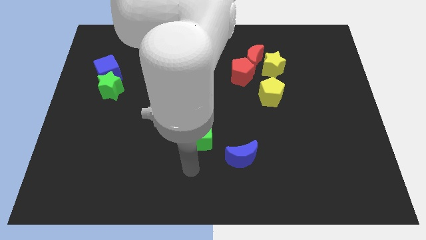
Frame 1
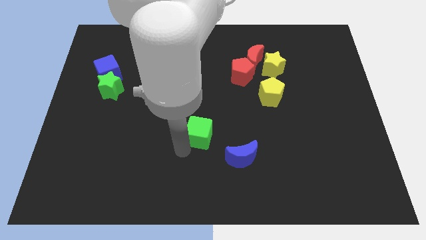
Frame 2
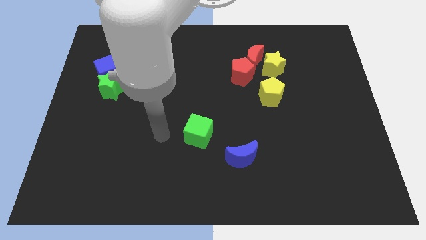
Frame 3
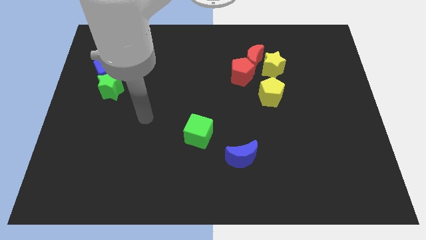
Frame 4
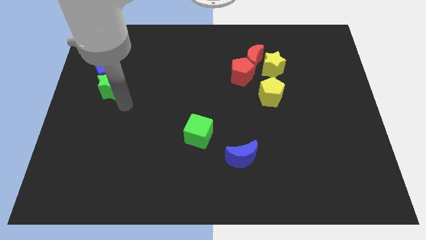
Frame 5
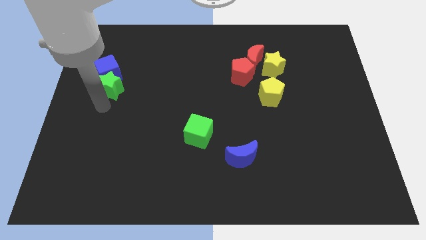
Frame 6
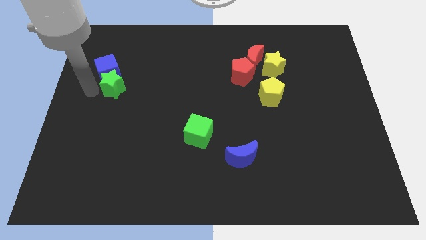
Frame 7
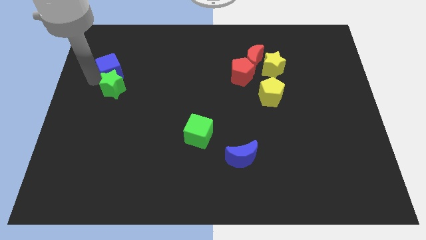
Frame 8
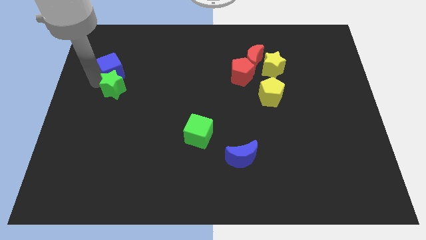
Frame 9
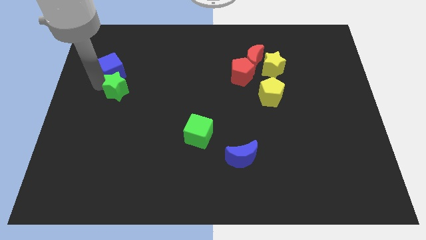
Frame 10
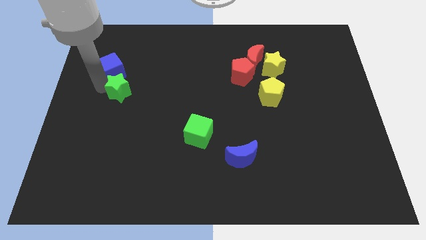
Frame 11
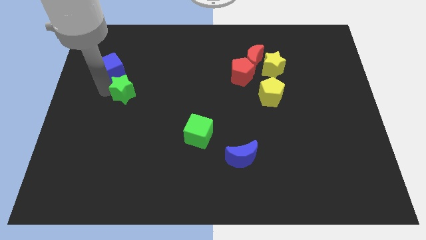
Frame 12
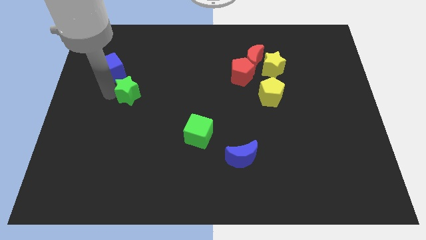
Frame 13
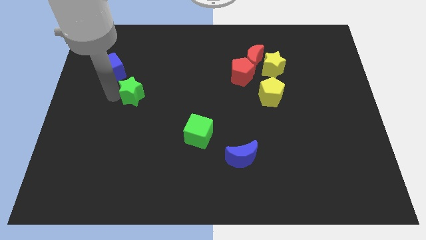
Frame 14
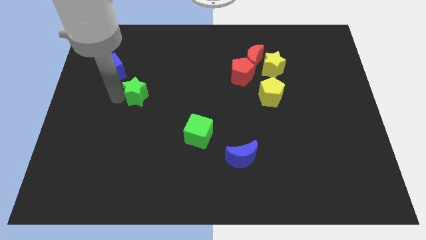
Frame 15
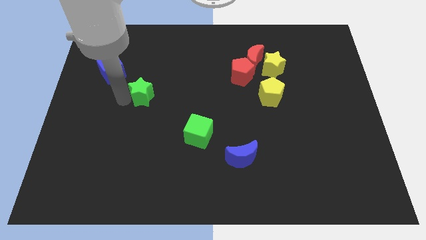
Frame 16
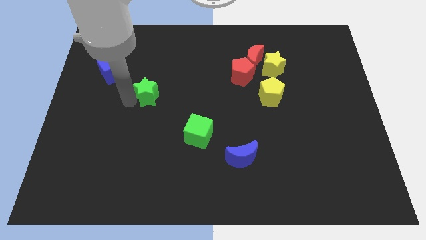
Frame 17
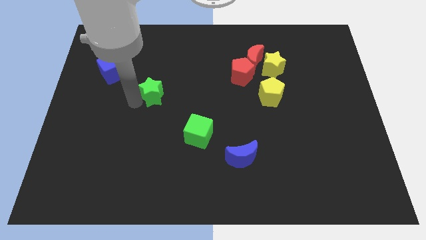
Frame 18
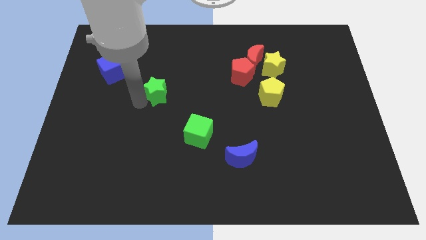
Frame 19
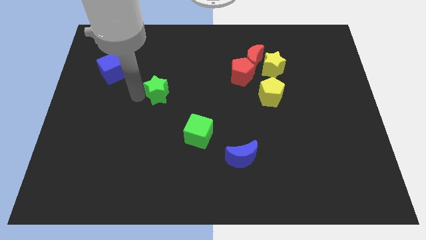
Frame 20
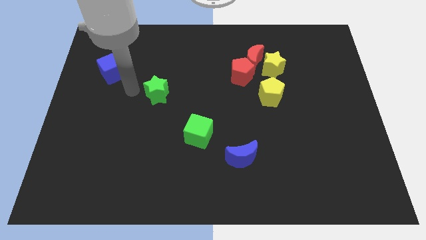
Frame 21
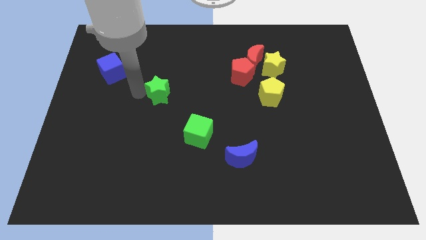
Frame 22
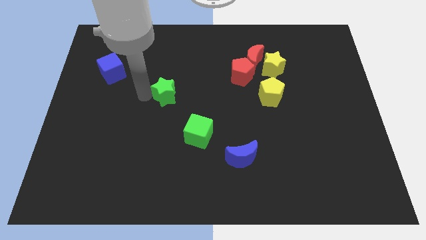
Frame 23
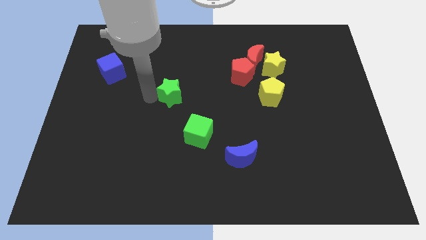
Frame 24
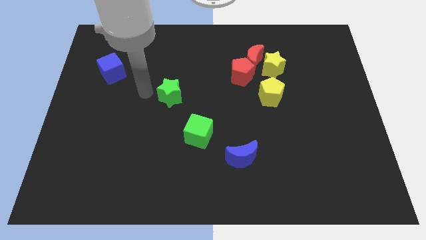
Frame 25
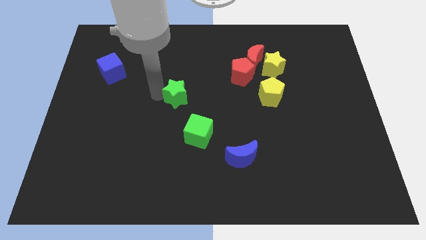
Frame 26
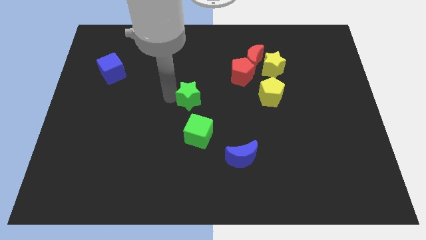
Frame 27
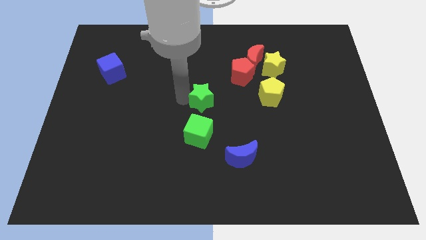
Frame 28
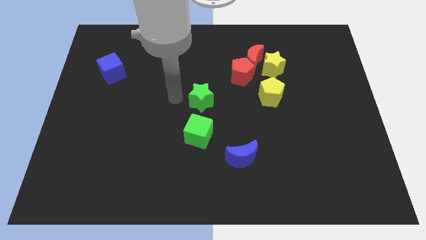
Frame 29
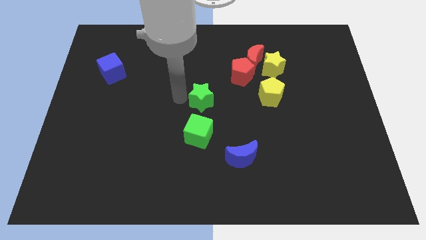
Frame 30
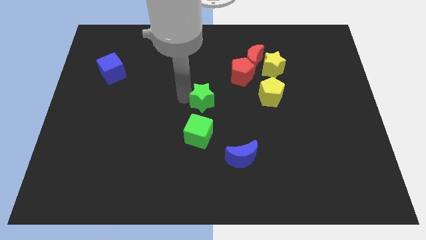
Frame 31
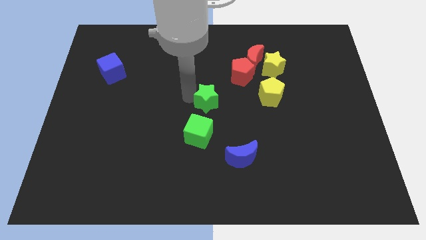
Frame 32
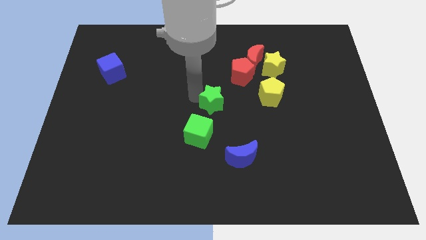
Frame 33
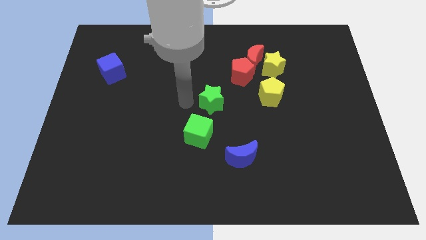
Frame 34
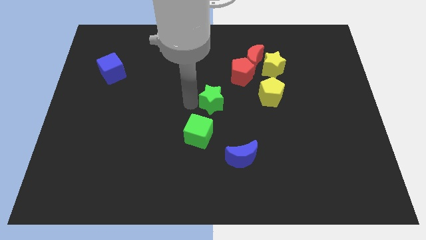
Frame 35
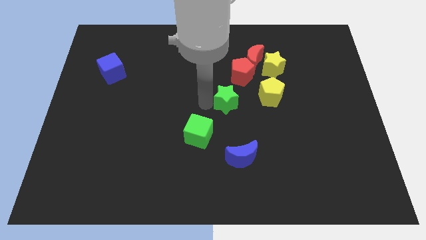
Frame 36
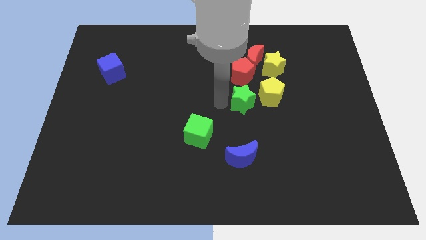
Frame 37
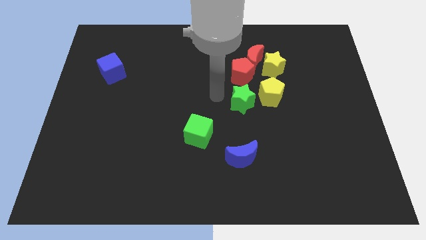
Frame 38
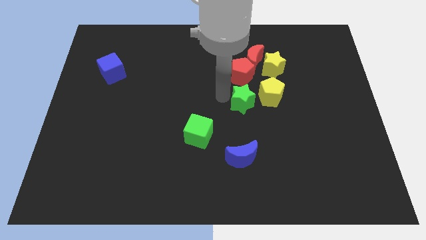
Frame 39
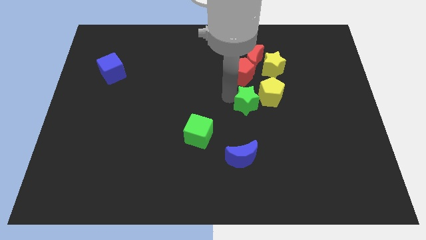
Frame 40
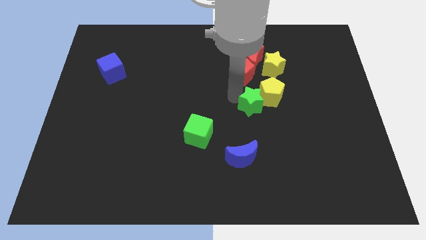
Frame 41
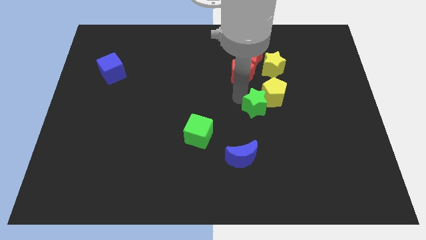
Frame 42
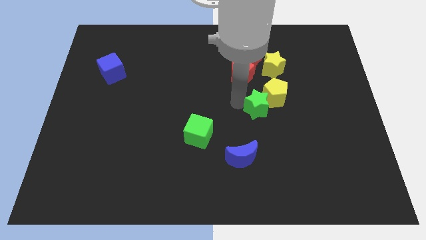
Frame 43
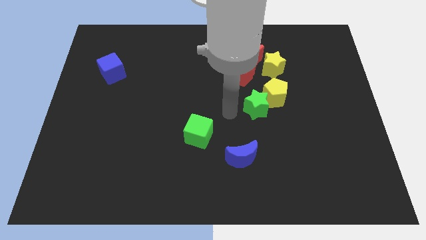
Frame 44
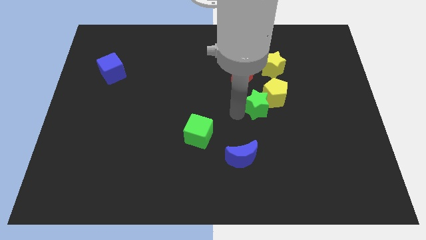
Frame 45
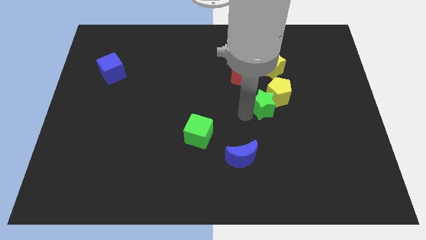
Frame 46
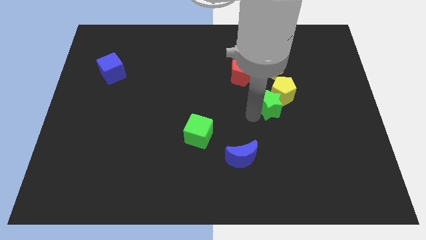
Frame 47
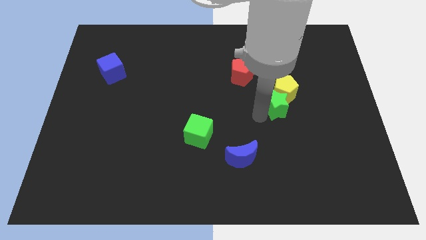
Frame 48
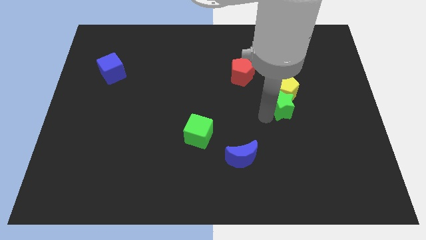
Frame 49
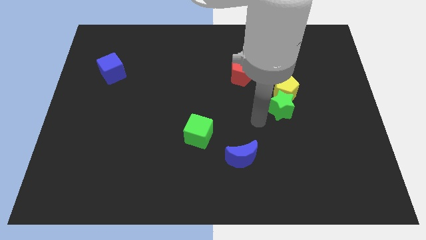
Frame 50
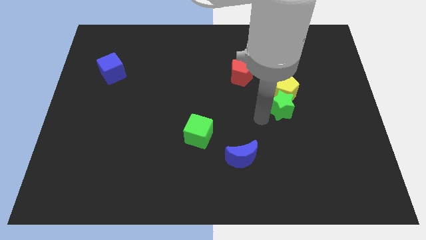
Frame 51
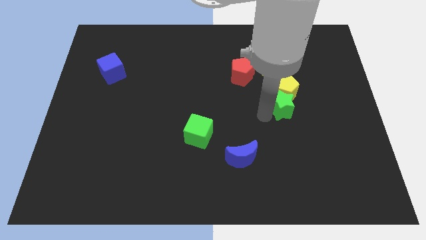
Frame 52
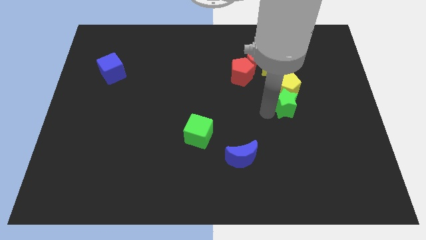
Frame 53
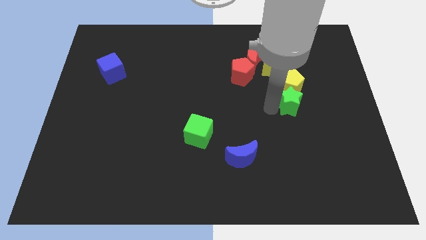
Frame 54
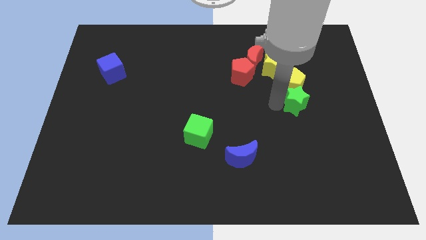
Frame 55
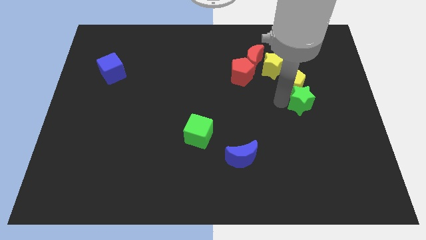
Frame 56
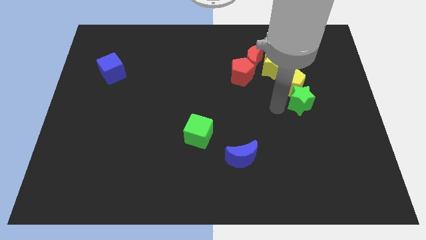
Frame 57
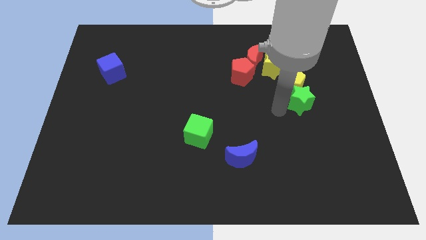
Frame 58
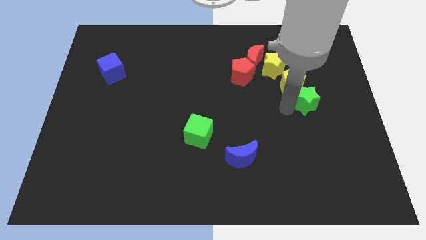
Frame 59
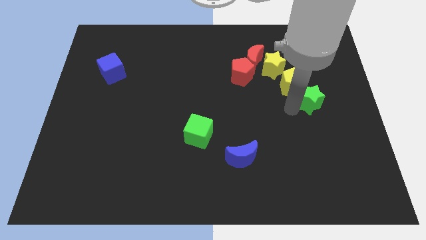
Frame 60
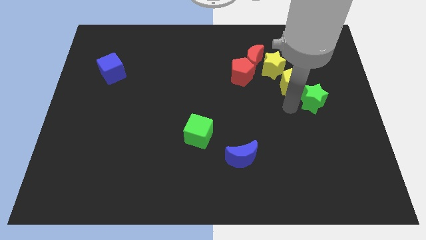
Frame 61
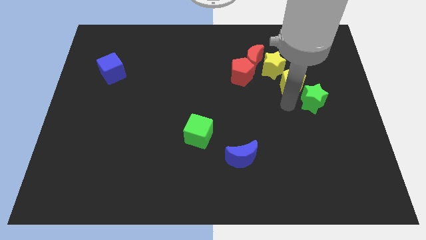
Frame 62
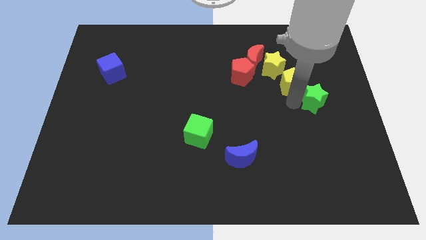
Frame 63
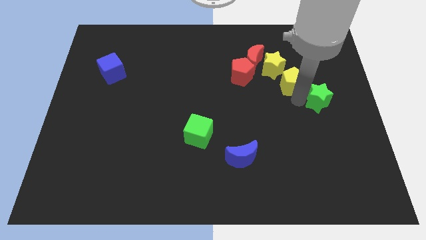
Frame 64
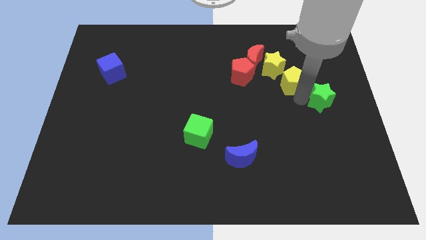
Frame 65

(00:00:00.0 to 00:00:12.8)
move the green star to the right side of the board

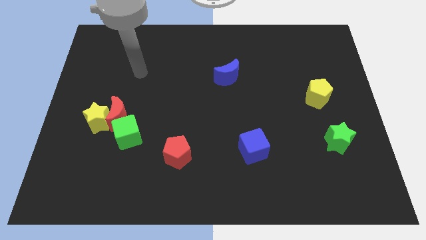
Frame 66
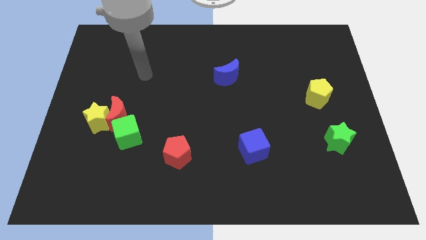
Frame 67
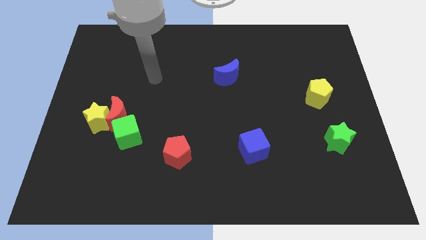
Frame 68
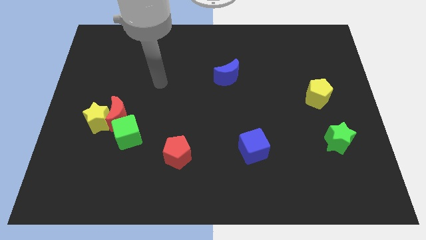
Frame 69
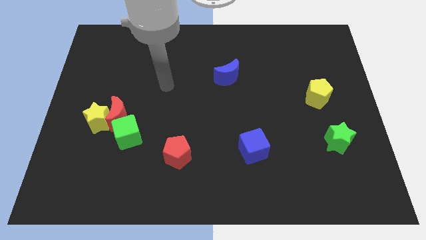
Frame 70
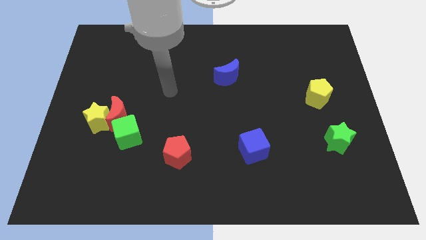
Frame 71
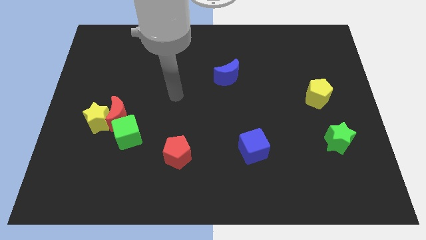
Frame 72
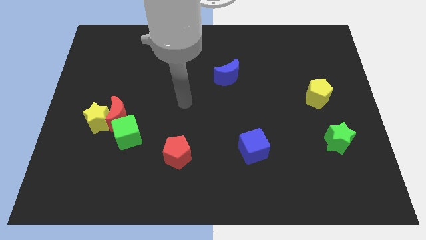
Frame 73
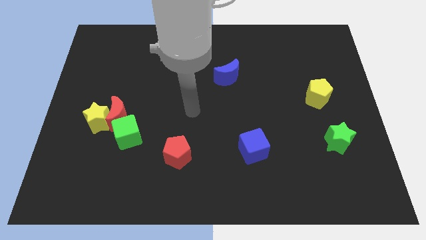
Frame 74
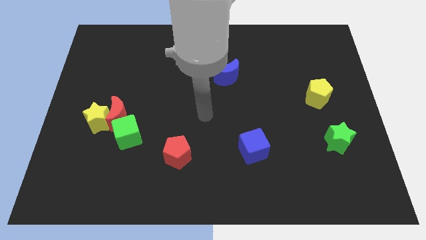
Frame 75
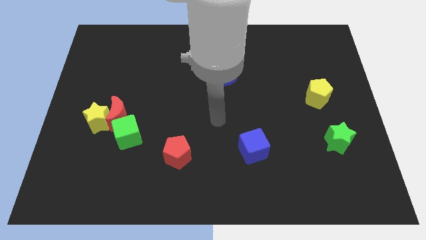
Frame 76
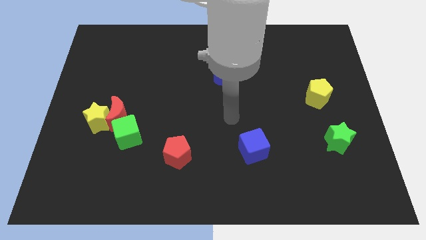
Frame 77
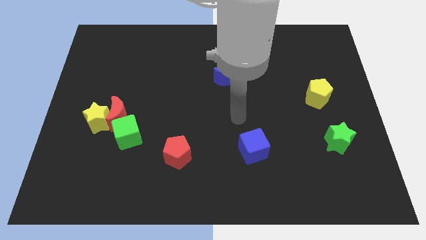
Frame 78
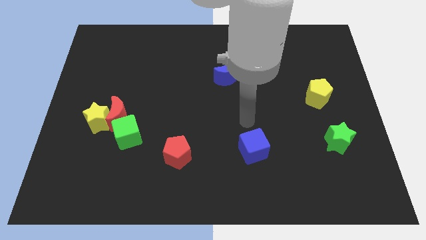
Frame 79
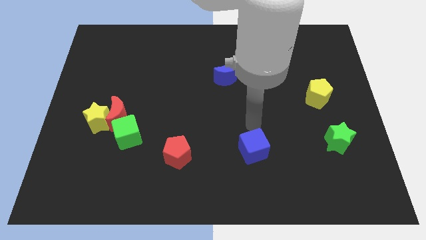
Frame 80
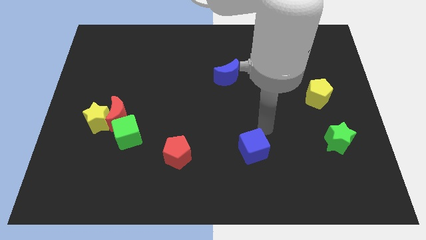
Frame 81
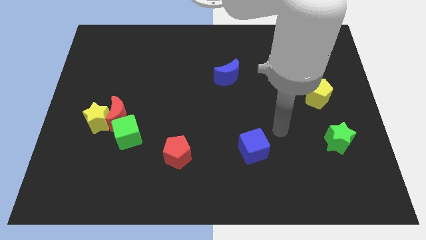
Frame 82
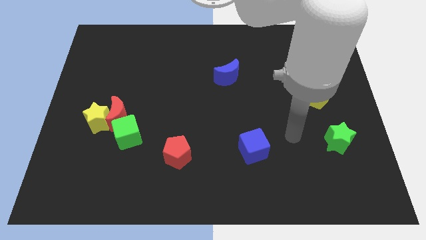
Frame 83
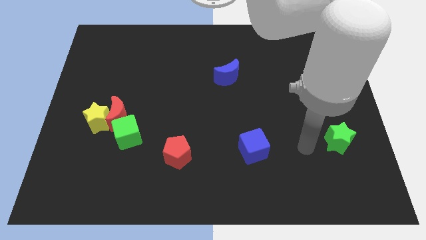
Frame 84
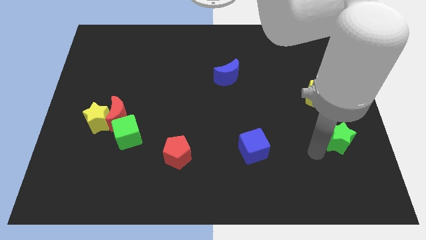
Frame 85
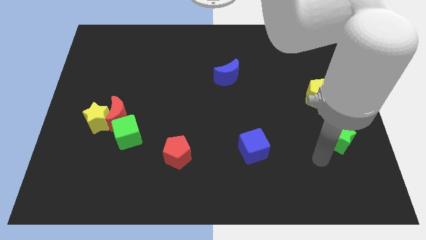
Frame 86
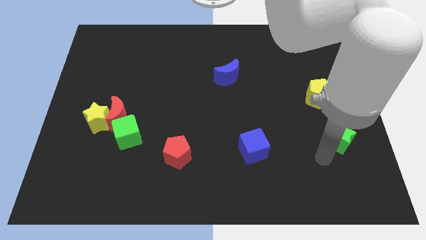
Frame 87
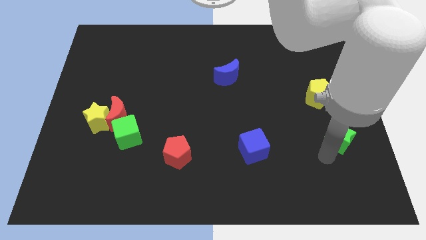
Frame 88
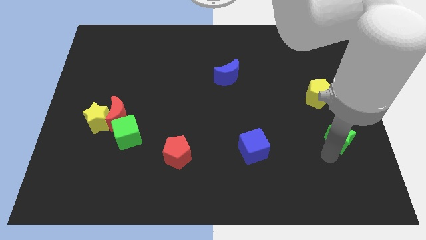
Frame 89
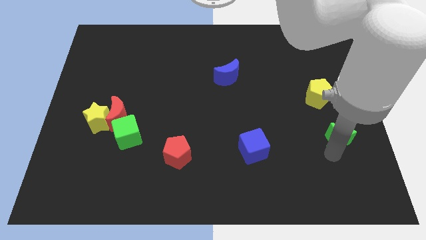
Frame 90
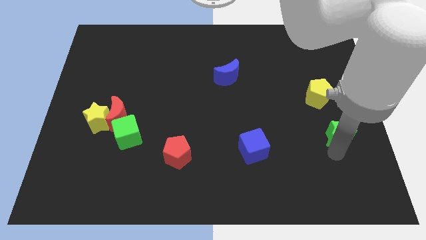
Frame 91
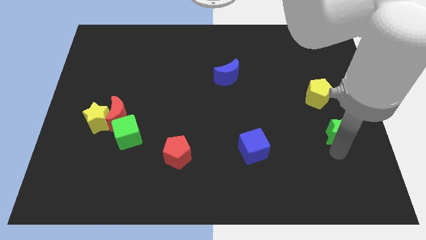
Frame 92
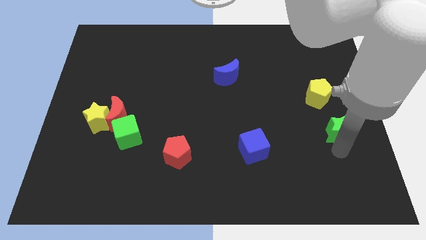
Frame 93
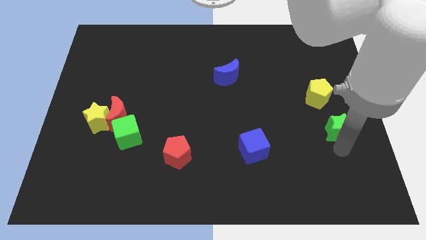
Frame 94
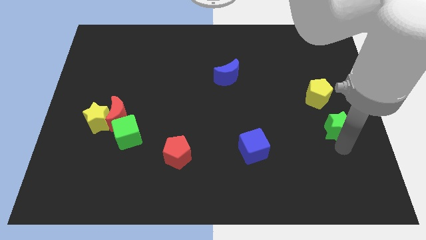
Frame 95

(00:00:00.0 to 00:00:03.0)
slide the green star to the right side of the board
